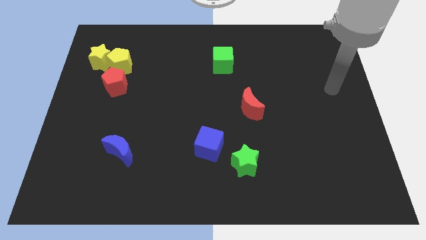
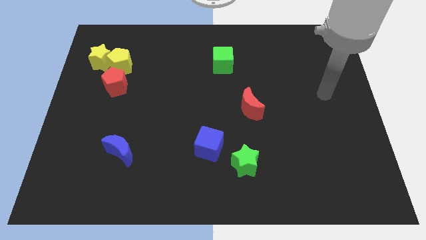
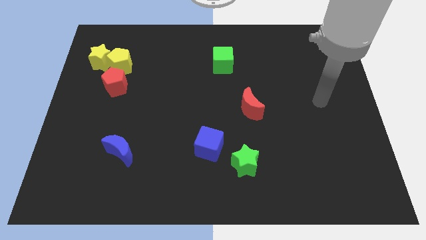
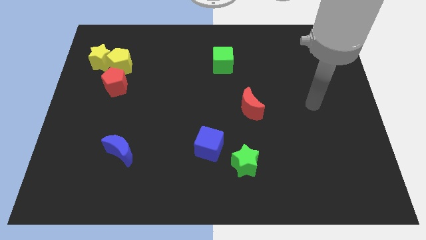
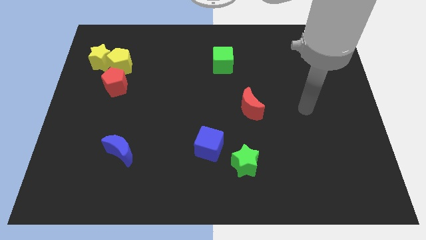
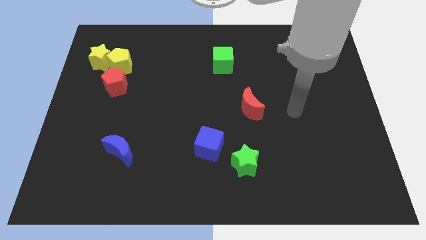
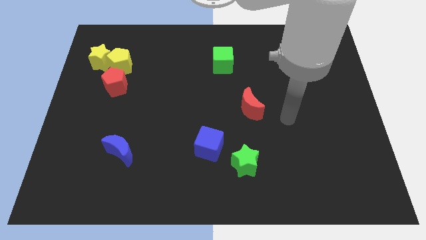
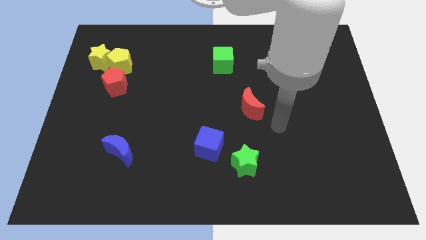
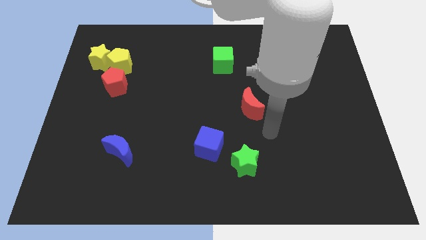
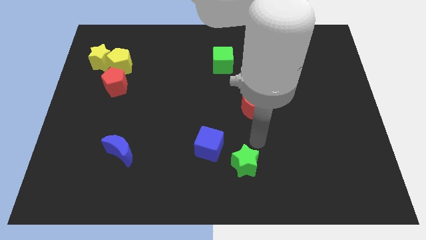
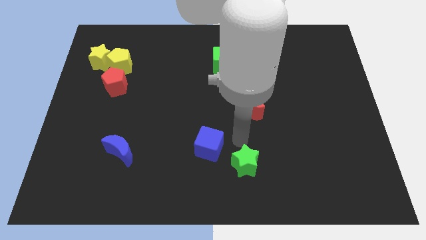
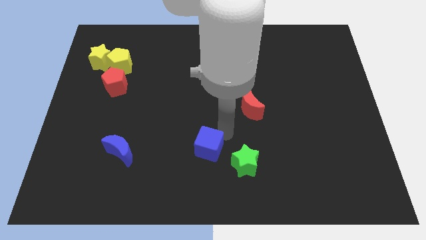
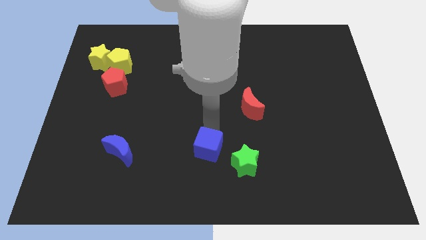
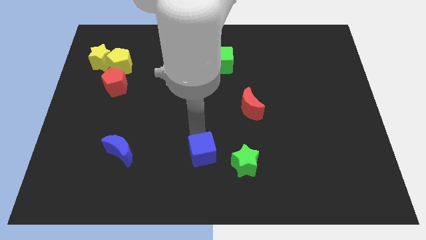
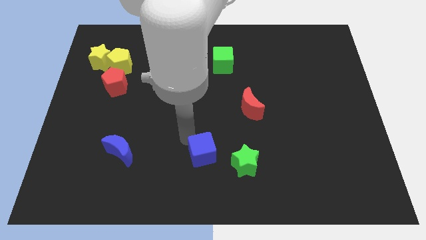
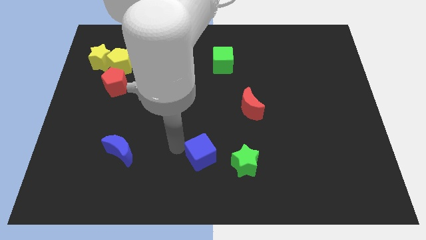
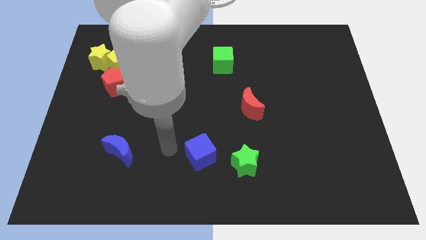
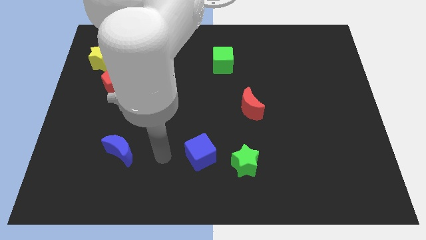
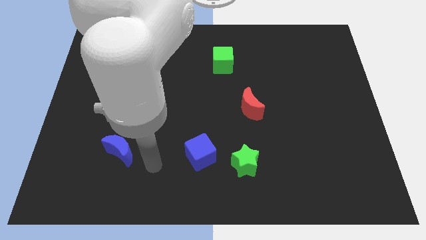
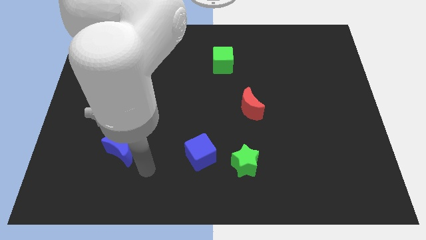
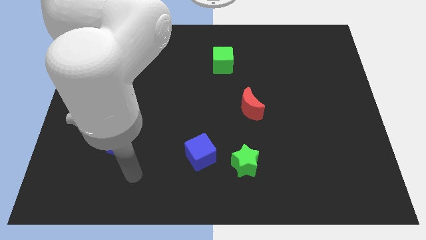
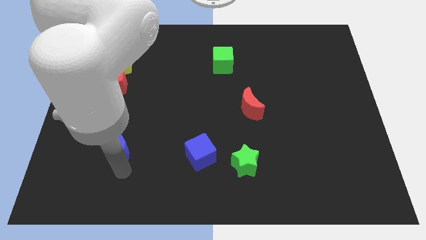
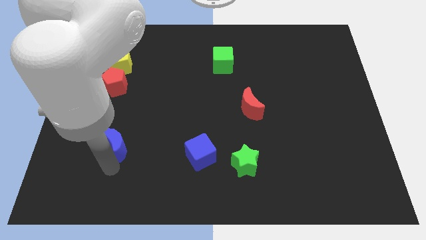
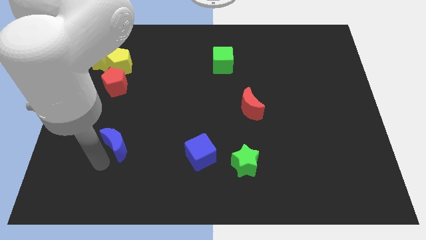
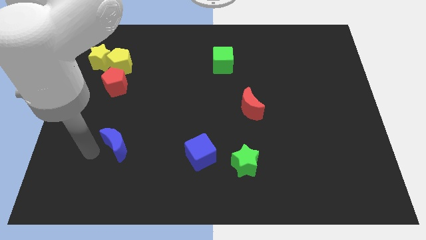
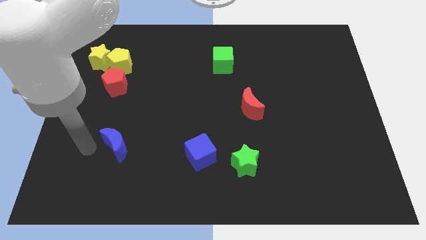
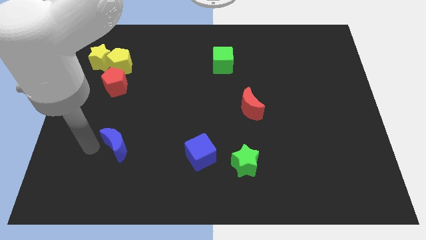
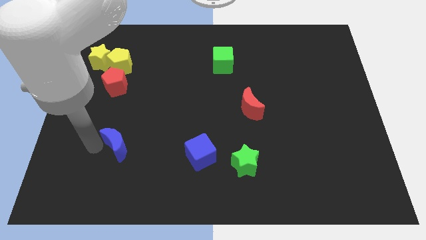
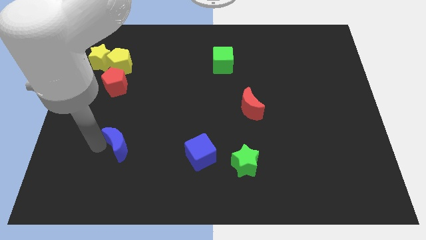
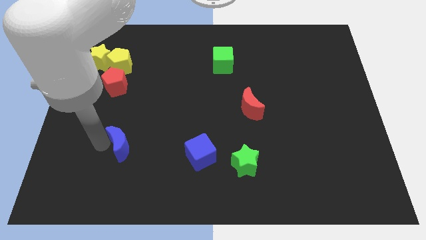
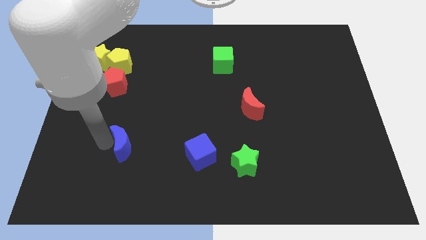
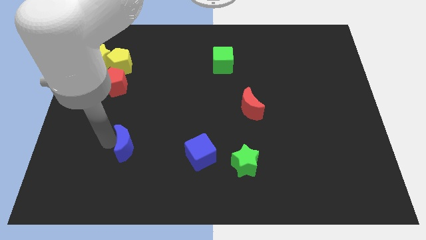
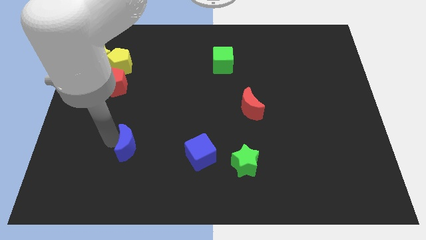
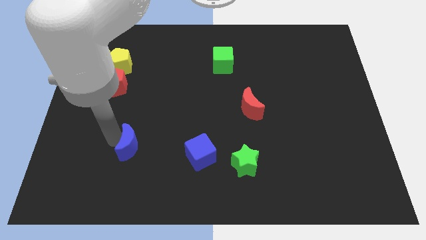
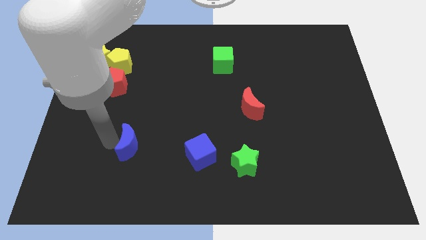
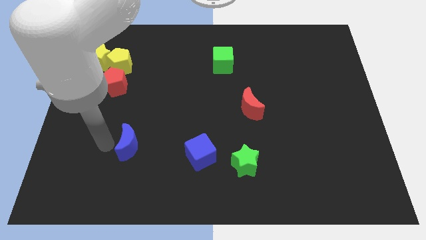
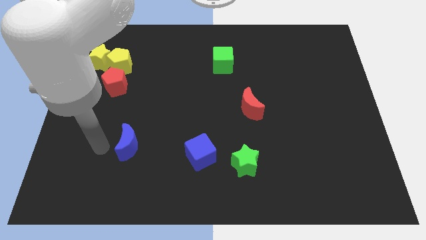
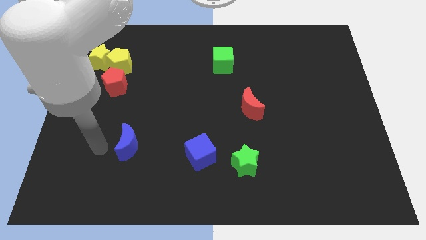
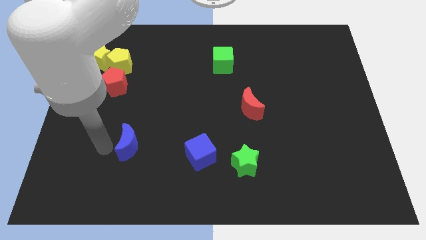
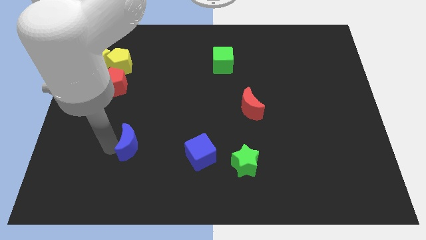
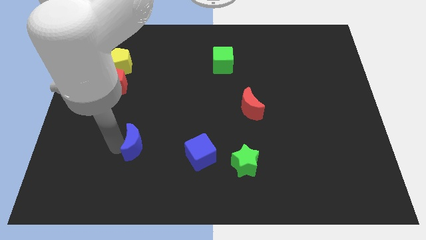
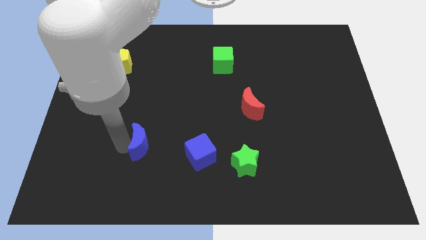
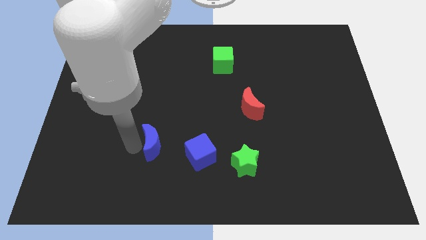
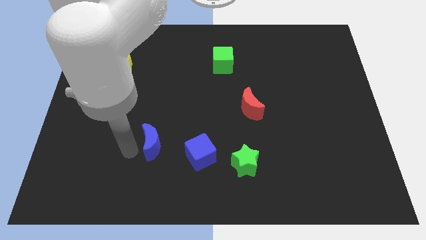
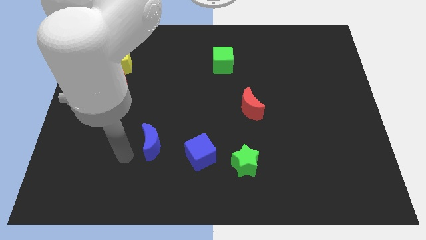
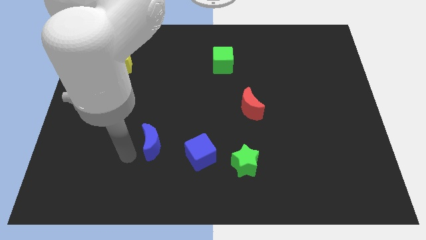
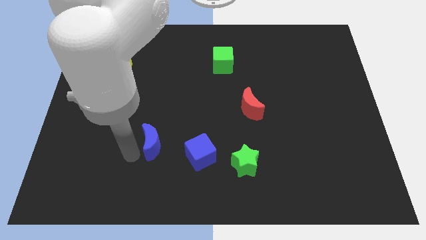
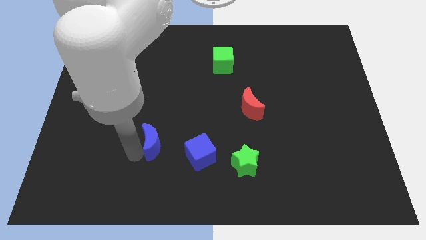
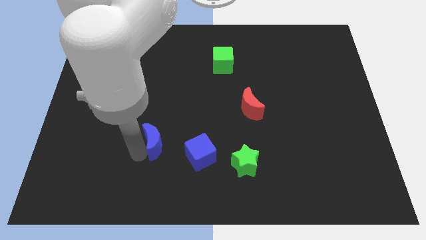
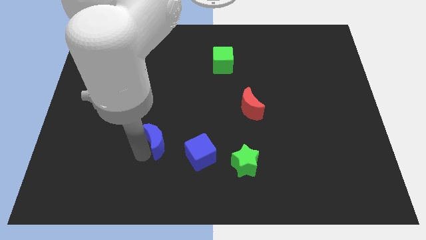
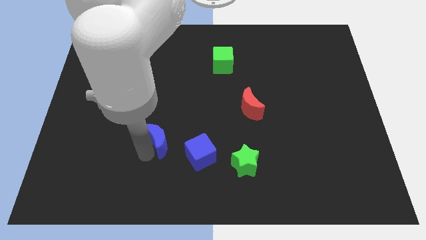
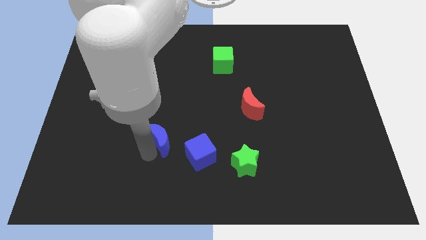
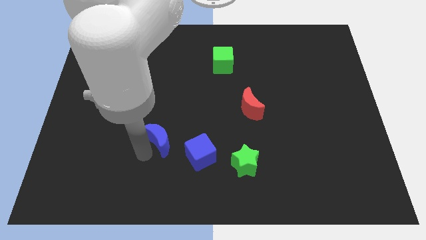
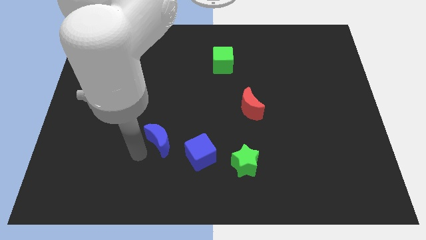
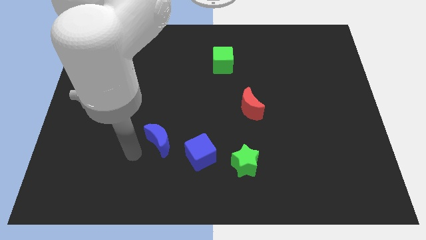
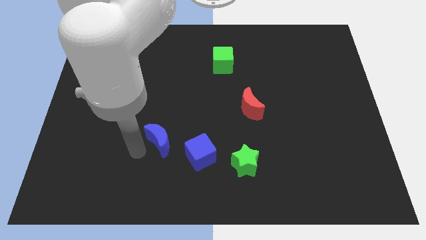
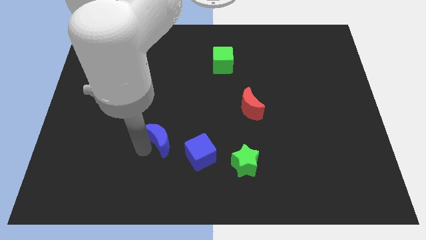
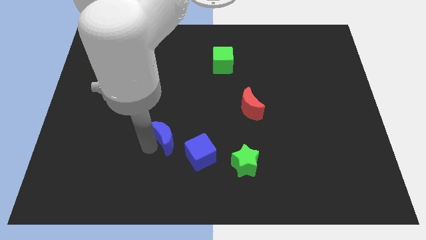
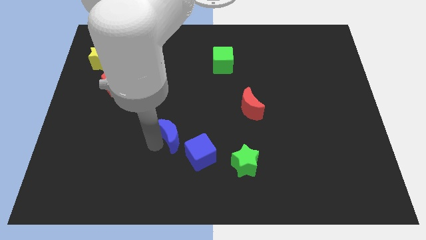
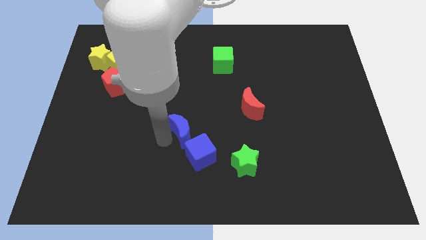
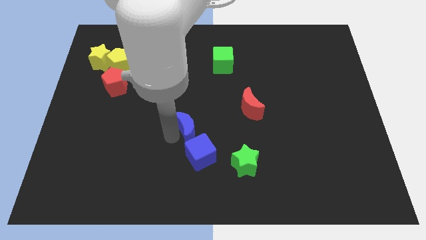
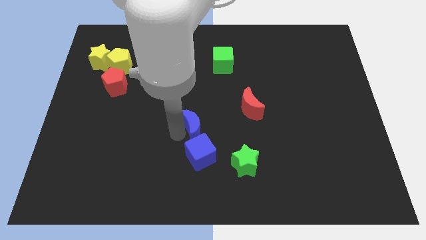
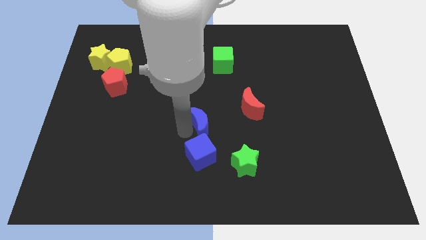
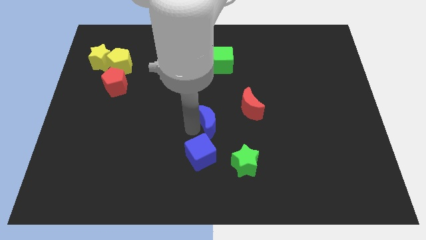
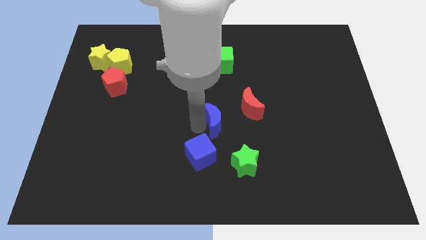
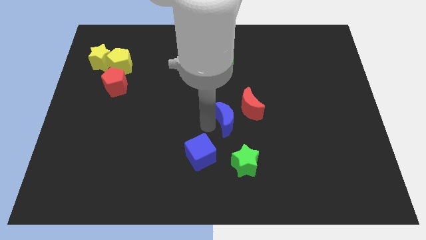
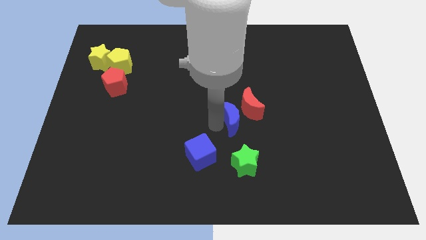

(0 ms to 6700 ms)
push the blue moon next to the red moon

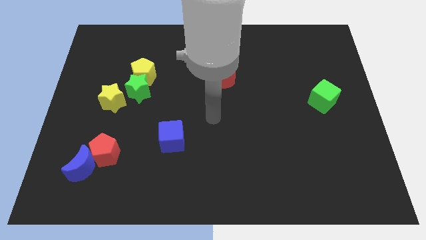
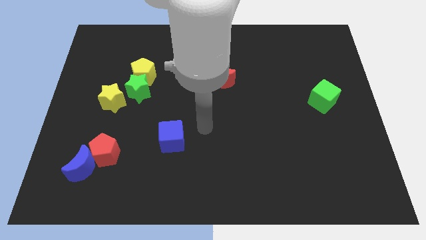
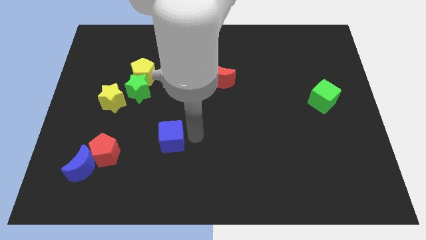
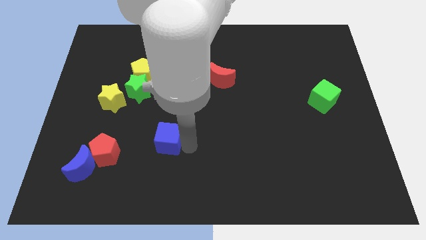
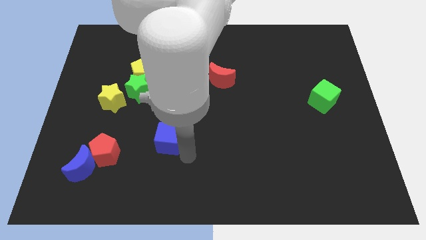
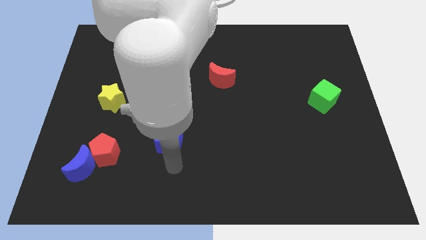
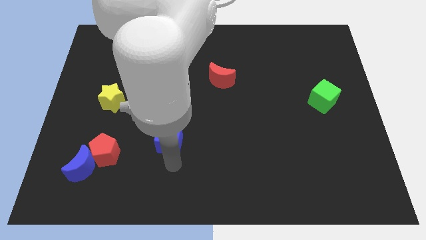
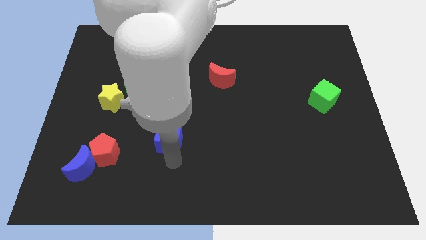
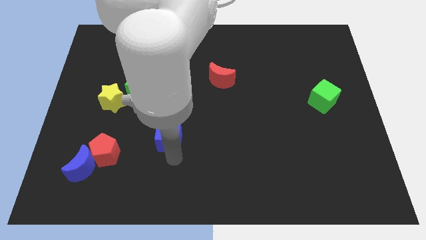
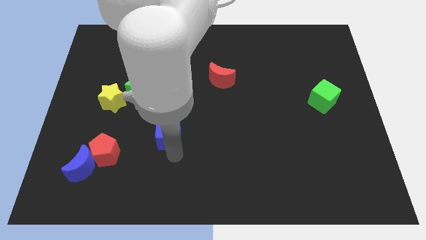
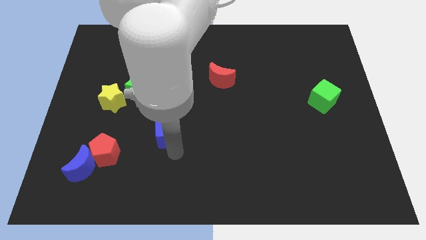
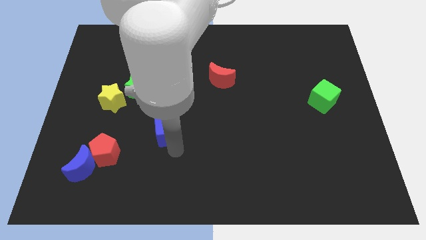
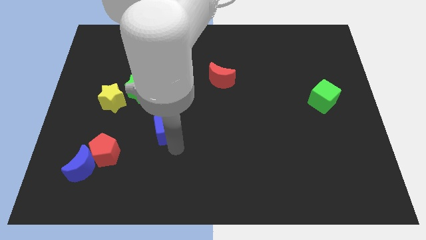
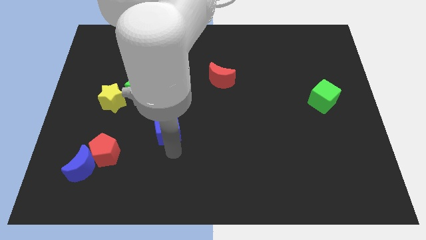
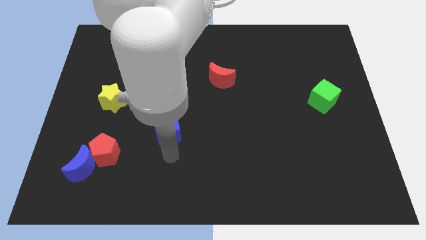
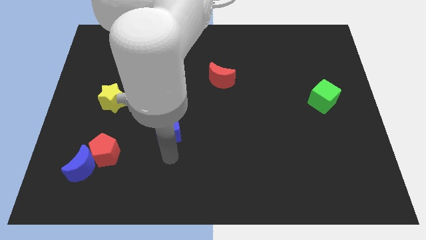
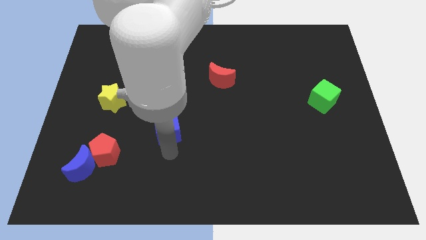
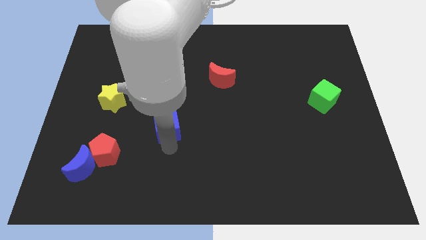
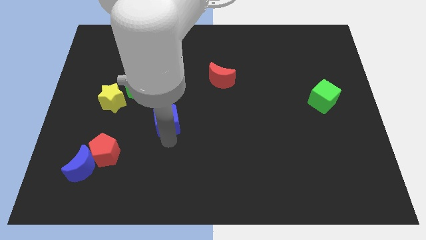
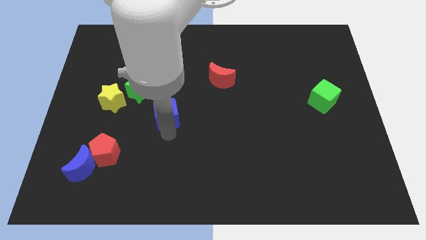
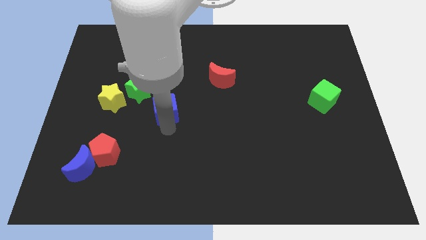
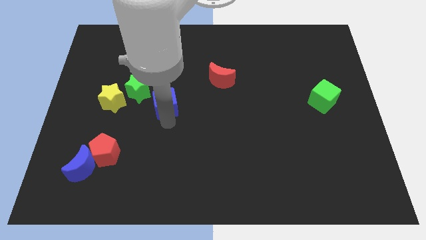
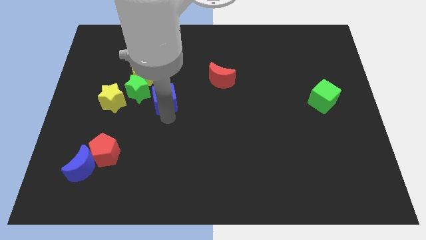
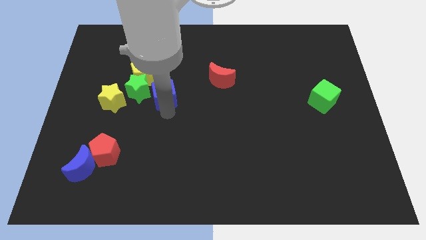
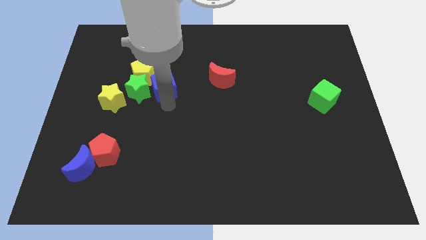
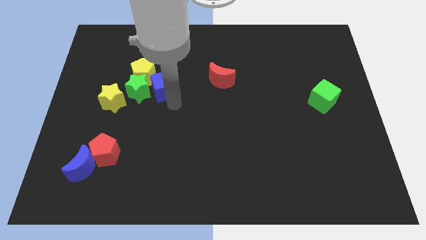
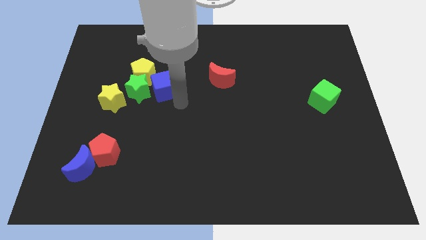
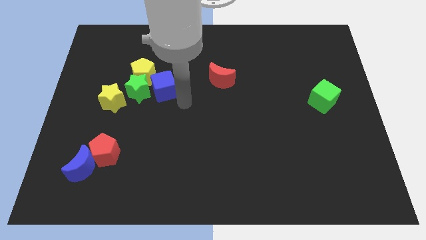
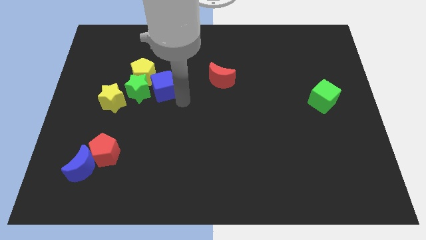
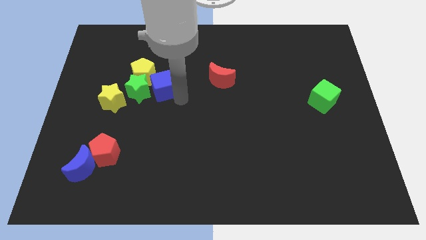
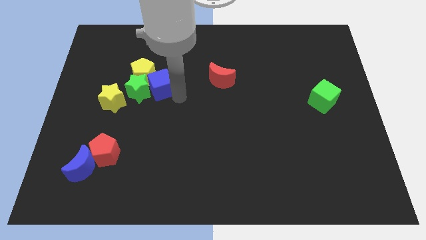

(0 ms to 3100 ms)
put the blue cube close to the yellow pentagon
